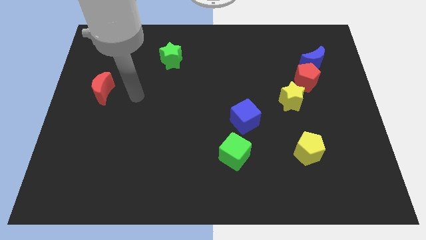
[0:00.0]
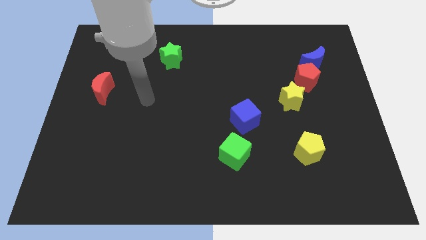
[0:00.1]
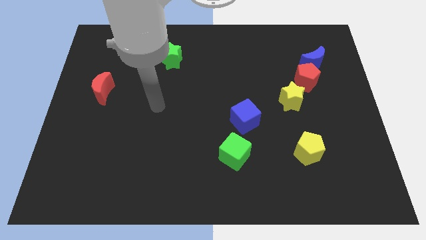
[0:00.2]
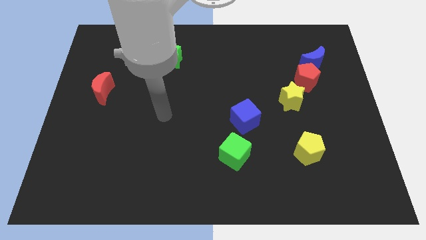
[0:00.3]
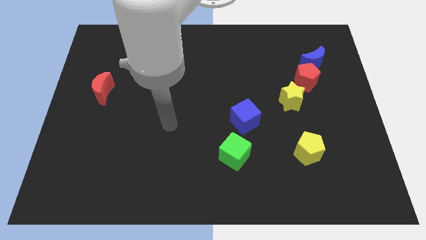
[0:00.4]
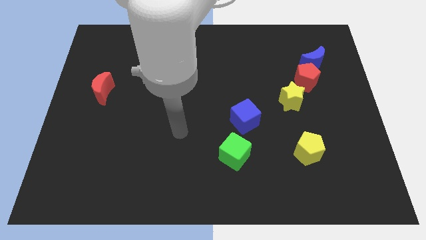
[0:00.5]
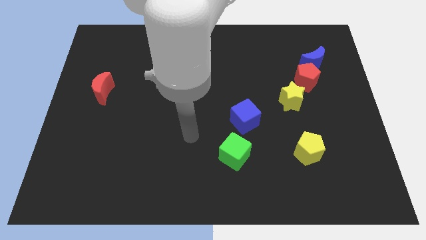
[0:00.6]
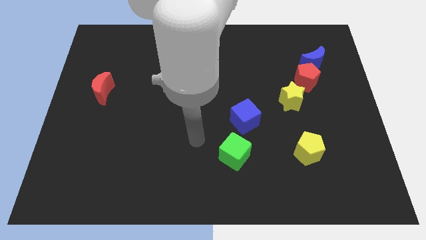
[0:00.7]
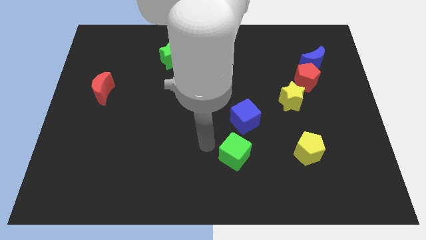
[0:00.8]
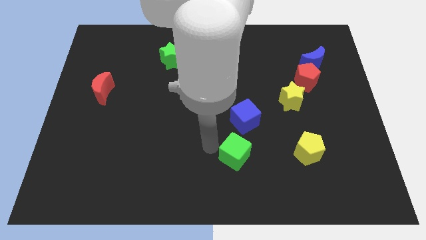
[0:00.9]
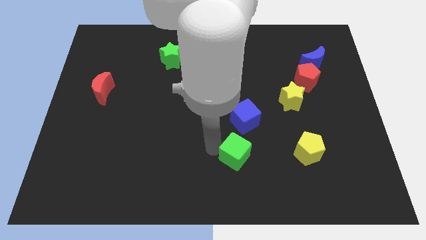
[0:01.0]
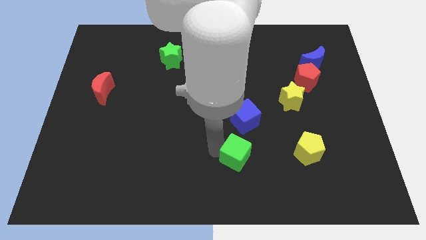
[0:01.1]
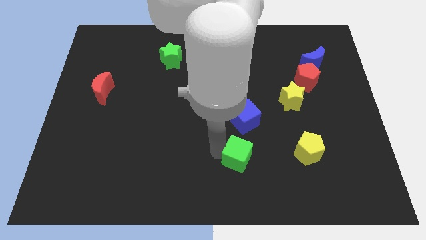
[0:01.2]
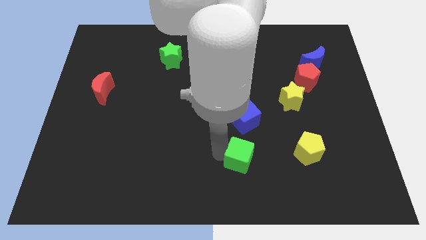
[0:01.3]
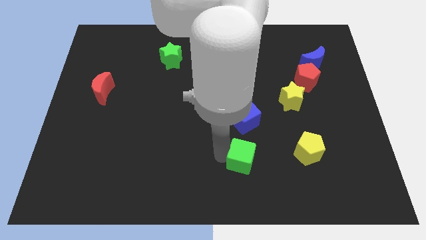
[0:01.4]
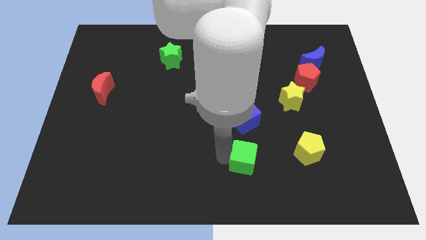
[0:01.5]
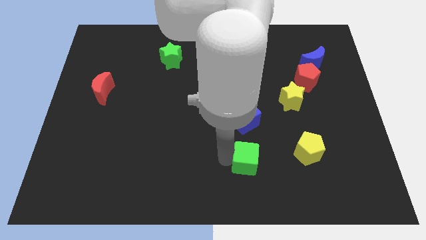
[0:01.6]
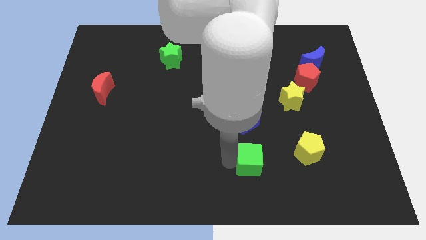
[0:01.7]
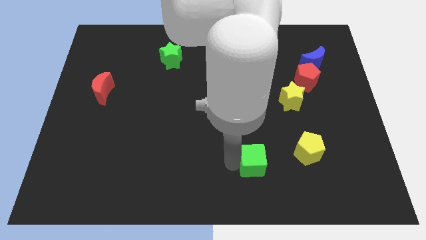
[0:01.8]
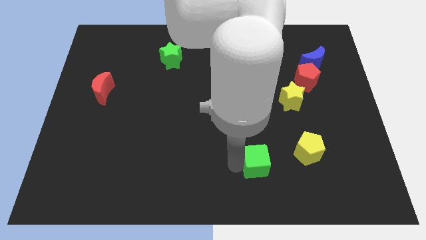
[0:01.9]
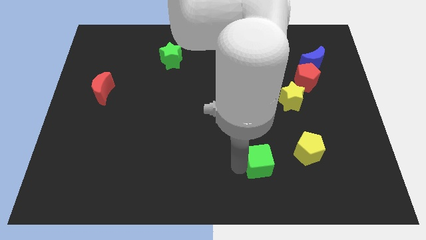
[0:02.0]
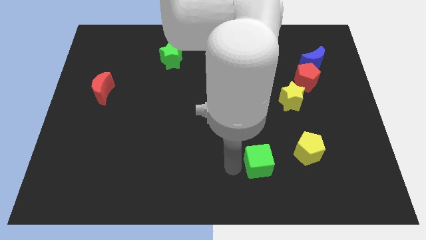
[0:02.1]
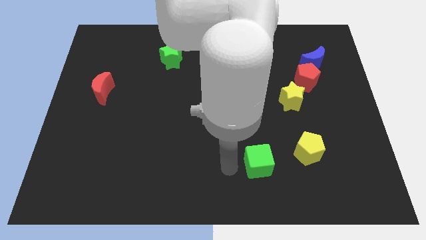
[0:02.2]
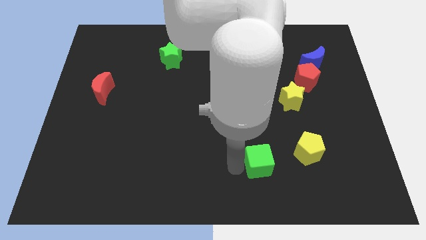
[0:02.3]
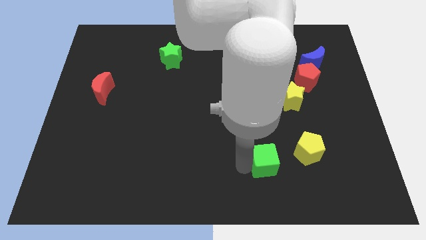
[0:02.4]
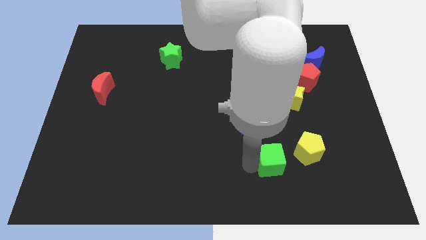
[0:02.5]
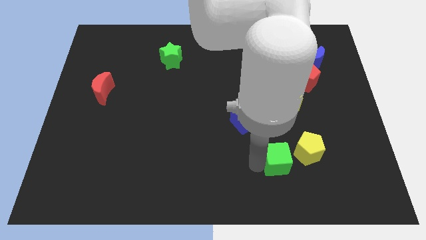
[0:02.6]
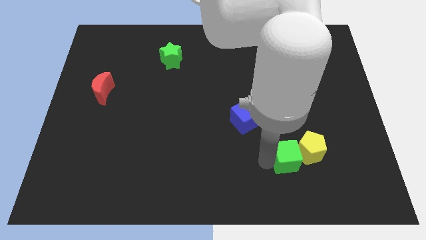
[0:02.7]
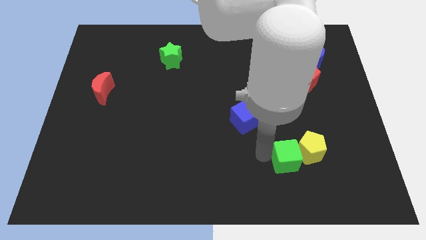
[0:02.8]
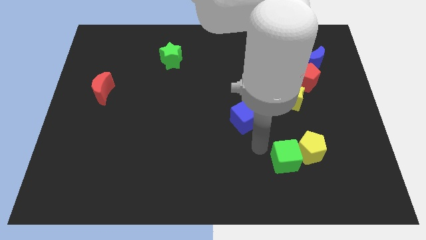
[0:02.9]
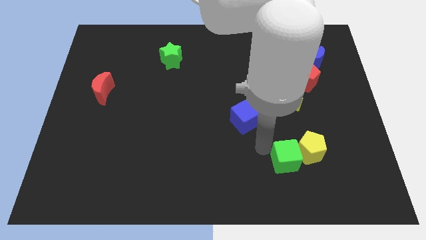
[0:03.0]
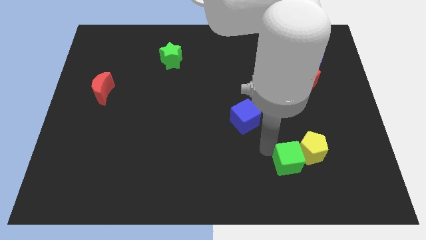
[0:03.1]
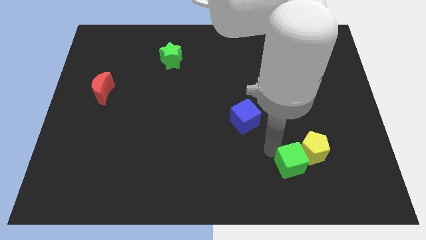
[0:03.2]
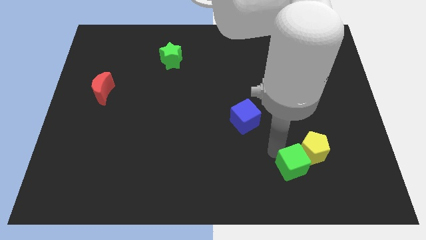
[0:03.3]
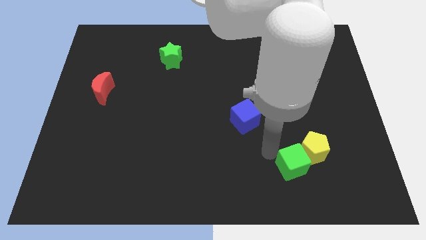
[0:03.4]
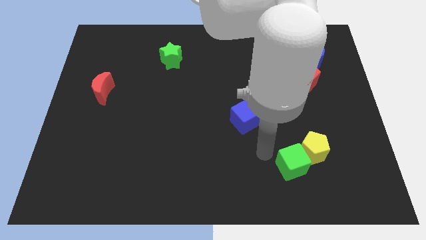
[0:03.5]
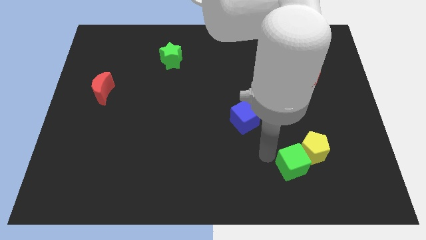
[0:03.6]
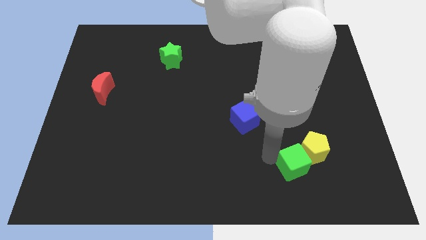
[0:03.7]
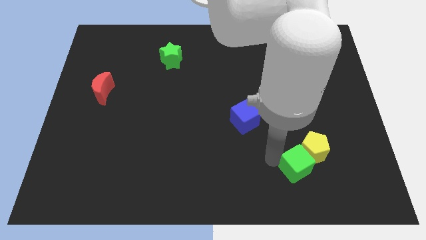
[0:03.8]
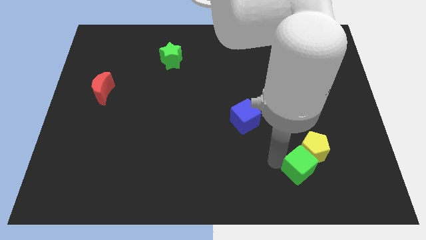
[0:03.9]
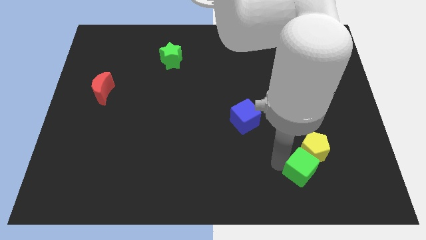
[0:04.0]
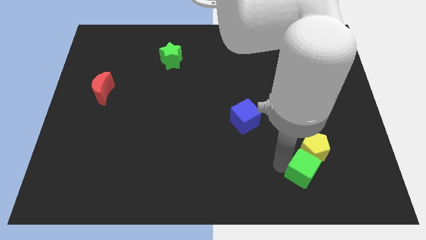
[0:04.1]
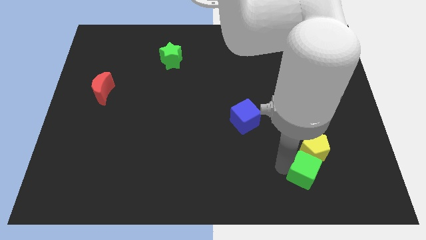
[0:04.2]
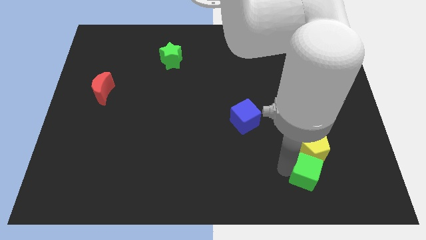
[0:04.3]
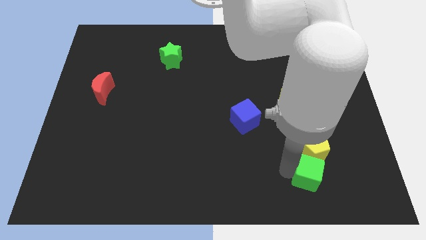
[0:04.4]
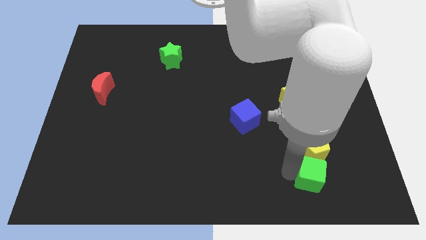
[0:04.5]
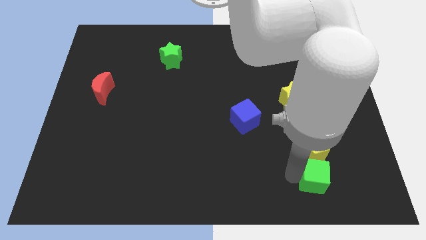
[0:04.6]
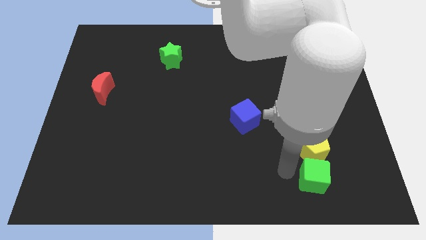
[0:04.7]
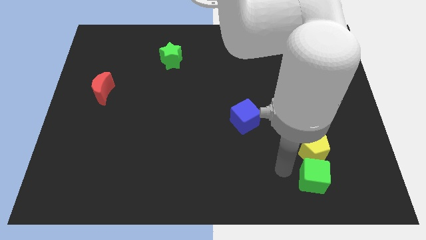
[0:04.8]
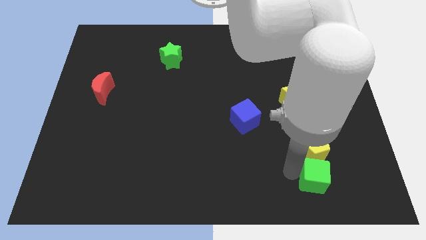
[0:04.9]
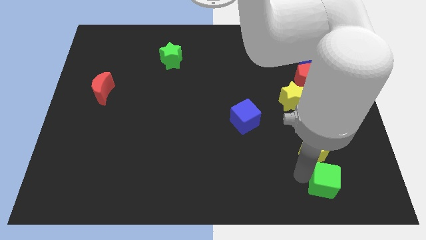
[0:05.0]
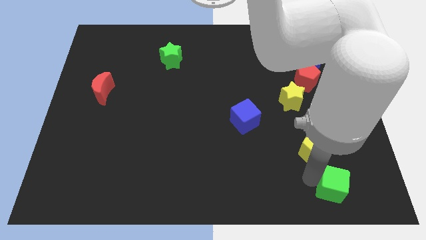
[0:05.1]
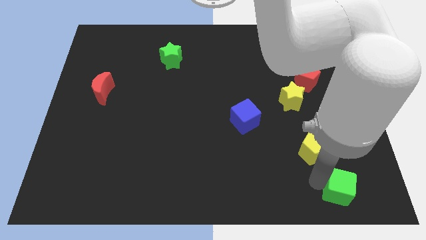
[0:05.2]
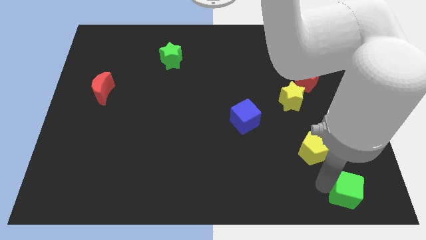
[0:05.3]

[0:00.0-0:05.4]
move the green cube to the bottom right

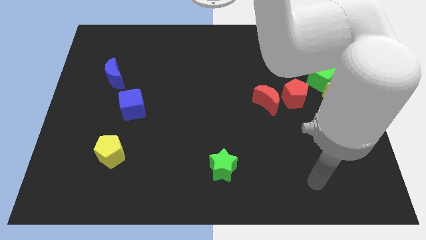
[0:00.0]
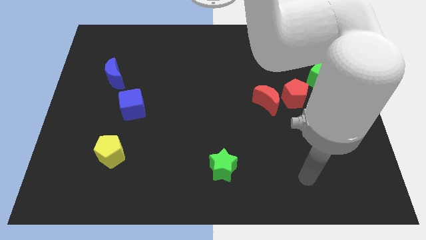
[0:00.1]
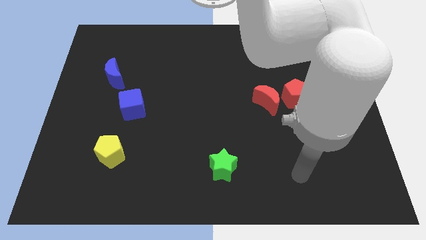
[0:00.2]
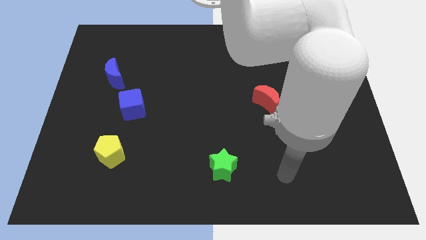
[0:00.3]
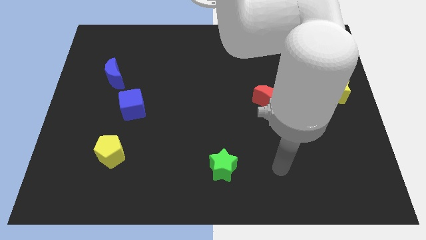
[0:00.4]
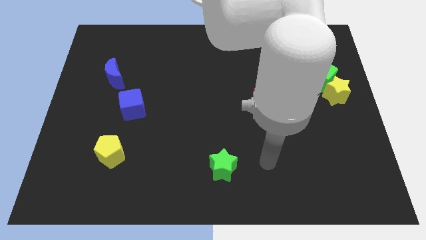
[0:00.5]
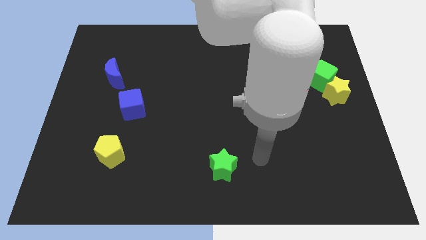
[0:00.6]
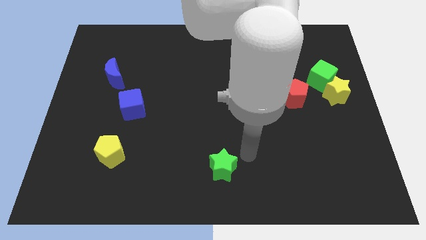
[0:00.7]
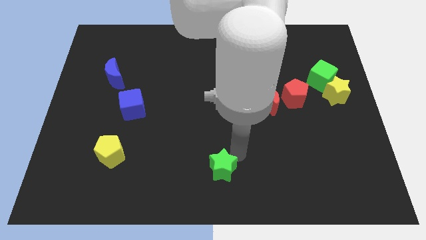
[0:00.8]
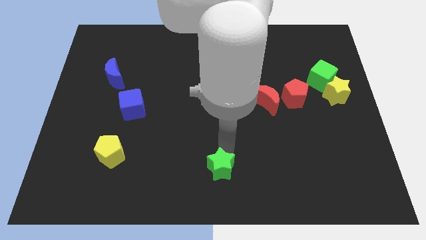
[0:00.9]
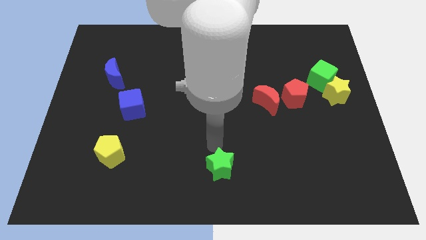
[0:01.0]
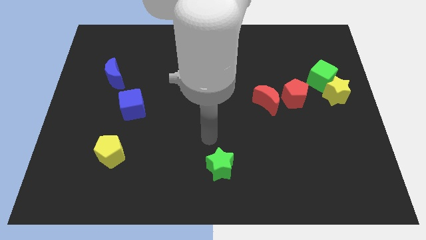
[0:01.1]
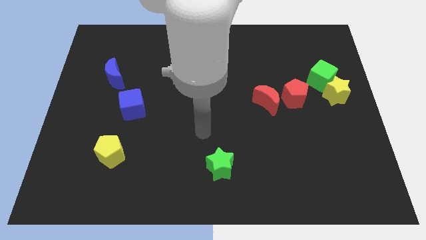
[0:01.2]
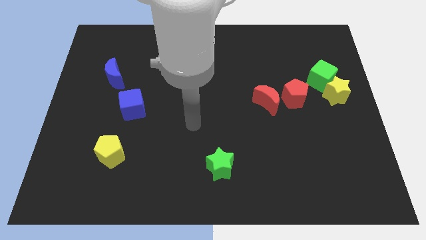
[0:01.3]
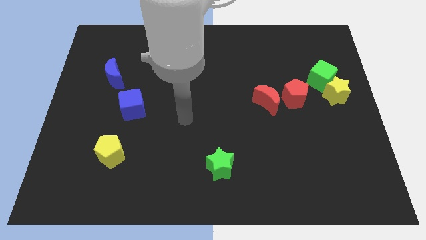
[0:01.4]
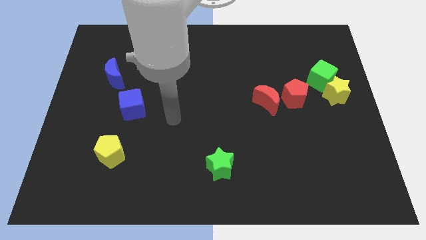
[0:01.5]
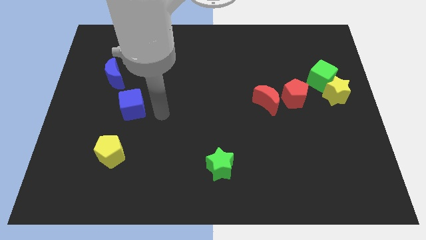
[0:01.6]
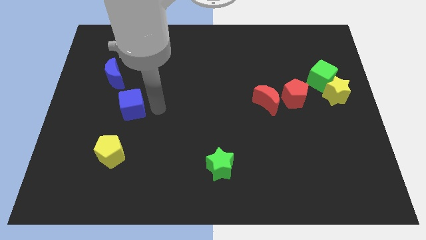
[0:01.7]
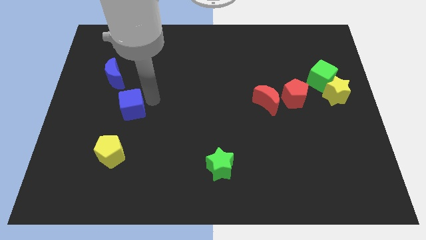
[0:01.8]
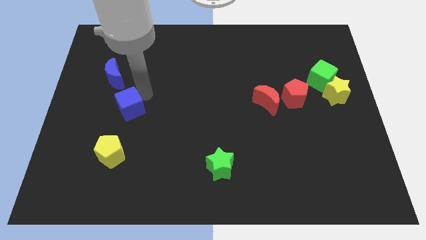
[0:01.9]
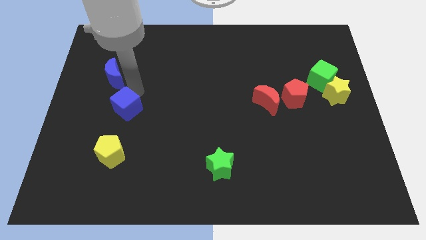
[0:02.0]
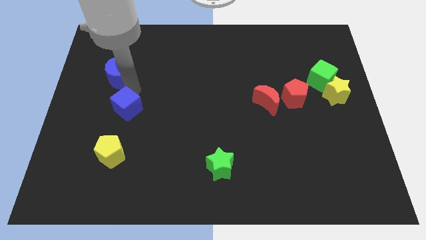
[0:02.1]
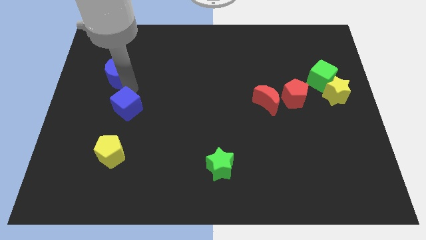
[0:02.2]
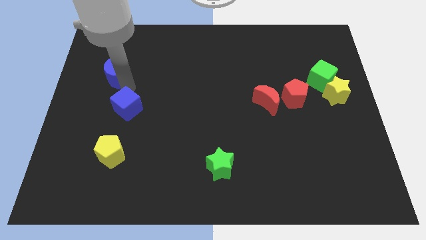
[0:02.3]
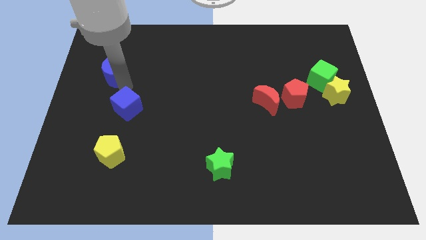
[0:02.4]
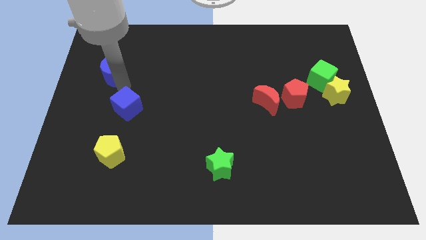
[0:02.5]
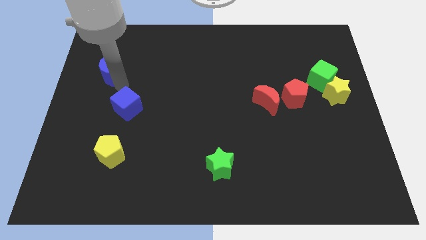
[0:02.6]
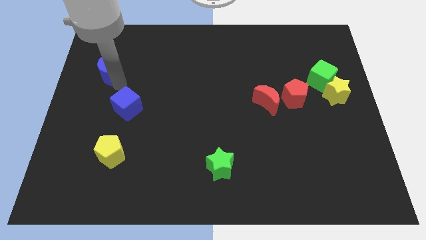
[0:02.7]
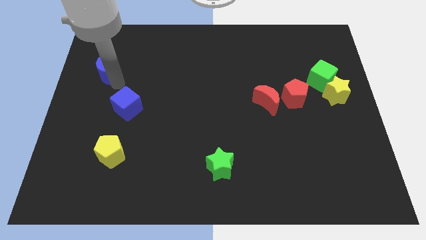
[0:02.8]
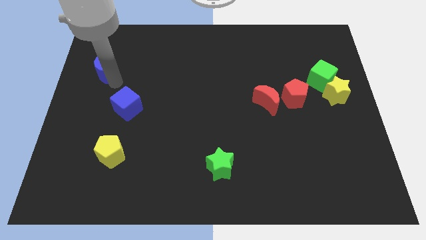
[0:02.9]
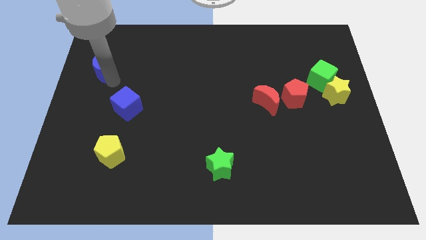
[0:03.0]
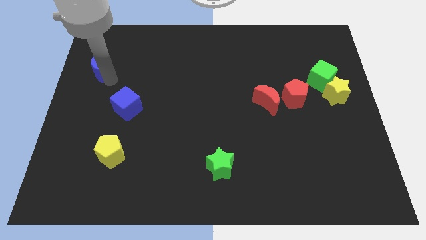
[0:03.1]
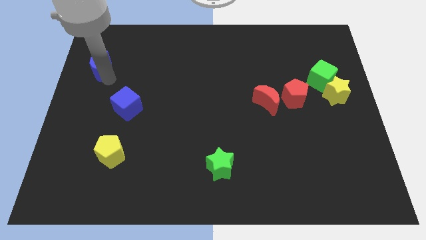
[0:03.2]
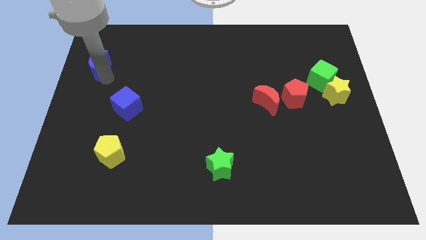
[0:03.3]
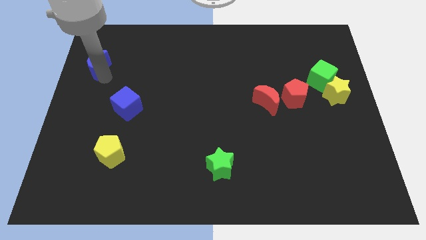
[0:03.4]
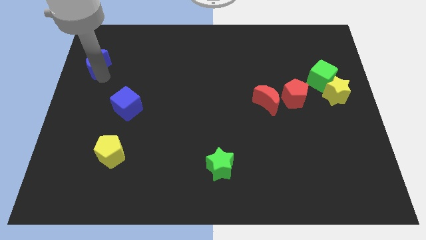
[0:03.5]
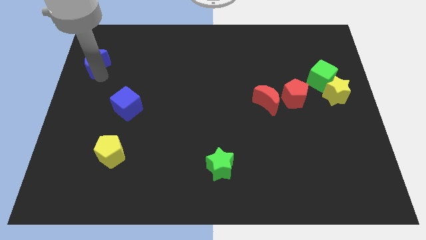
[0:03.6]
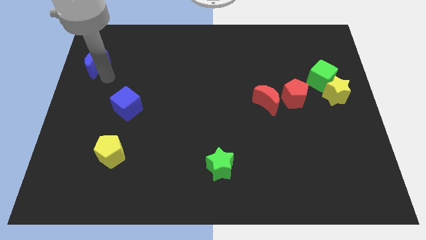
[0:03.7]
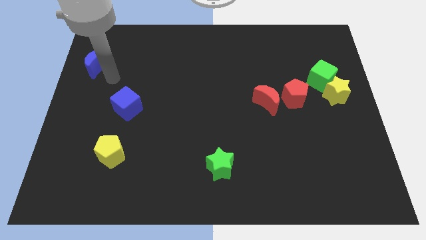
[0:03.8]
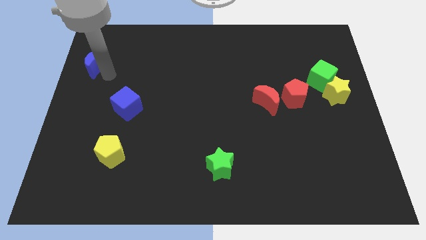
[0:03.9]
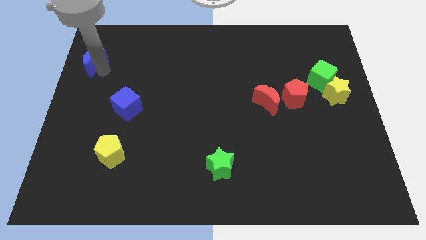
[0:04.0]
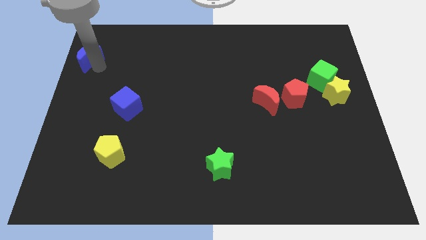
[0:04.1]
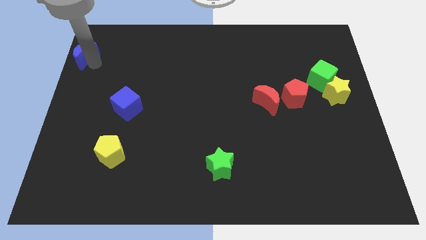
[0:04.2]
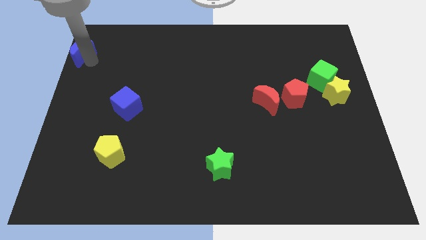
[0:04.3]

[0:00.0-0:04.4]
move the blue moon to the top left
